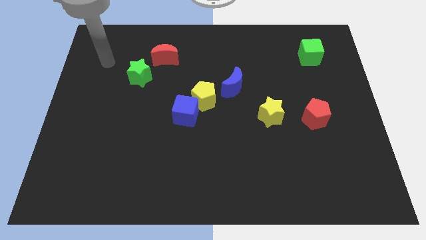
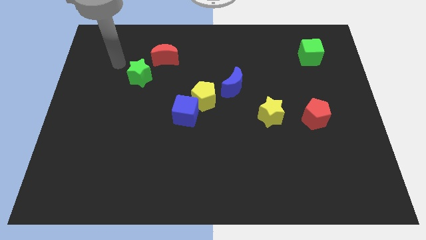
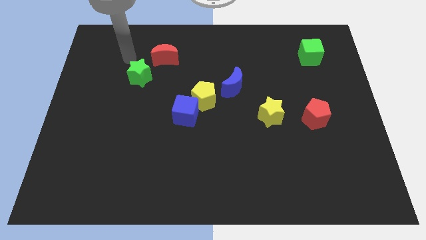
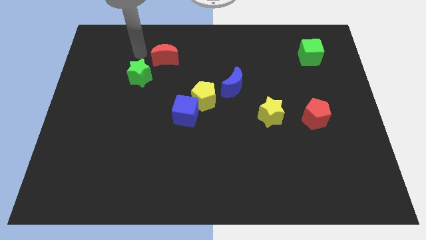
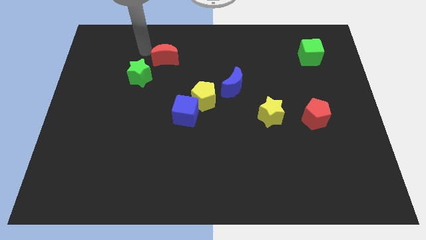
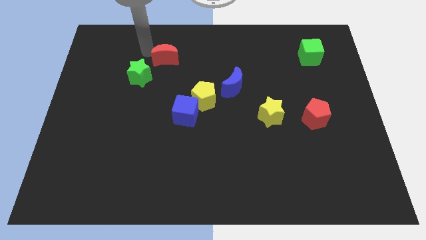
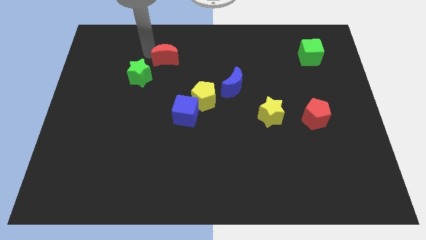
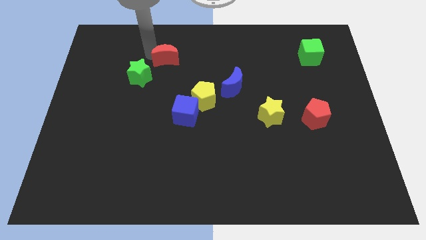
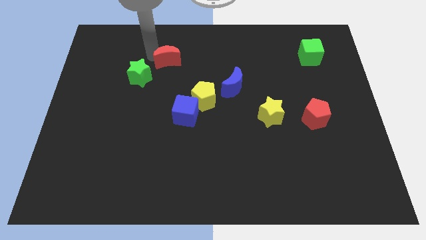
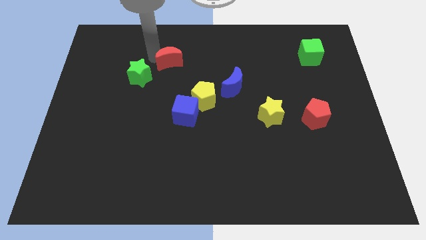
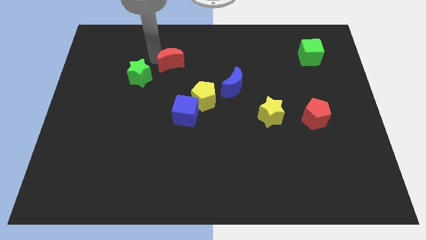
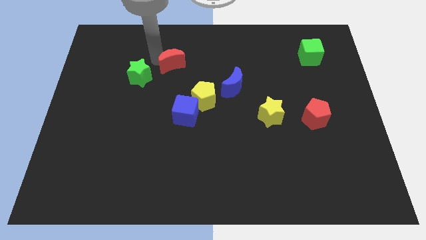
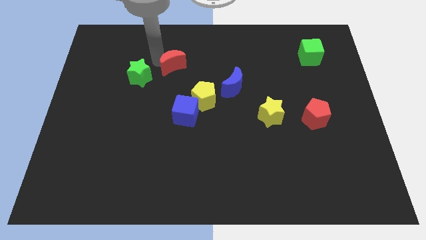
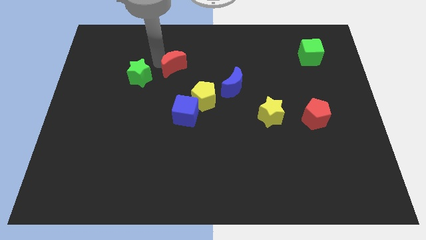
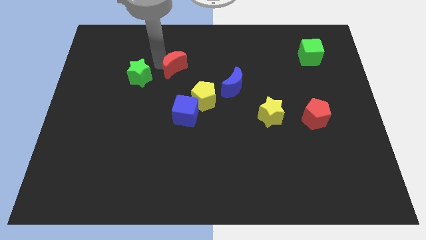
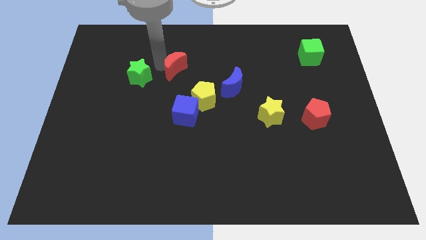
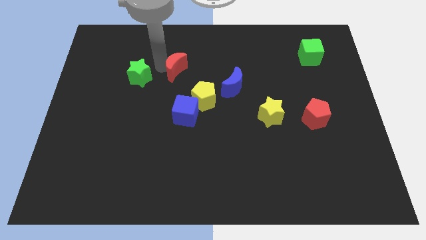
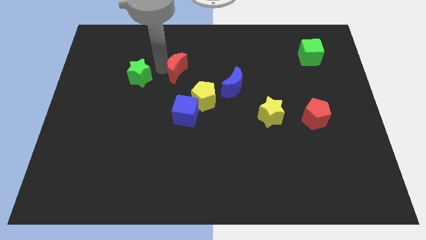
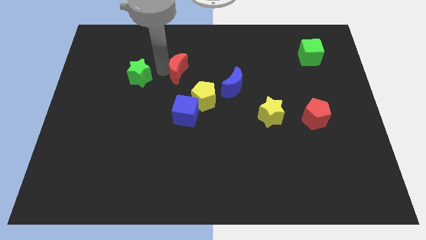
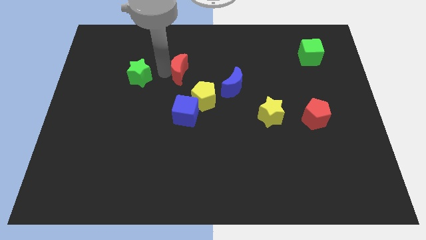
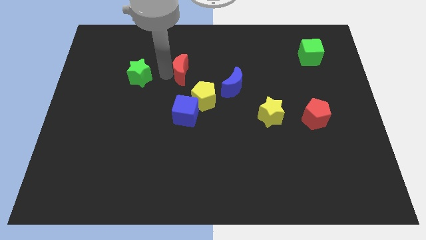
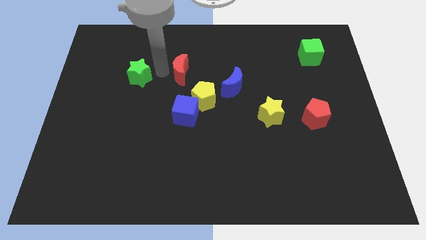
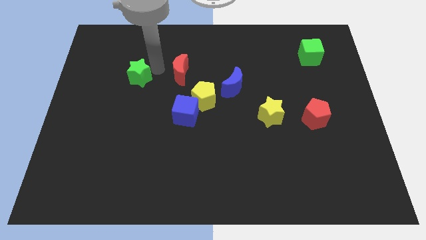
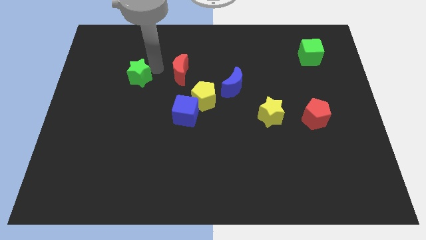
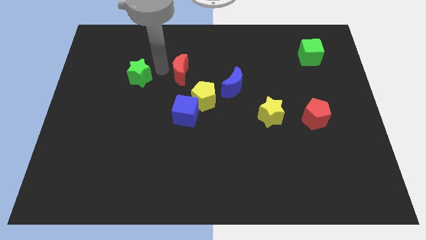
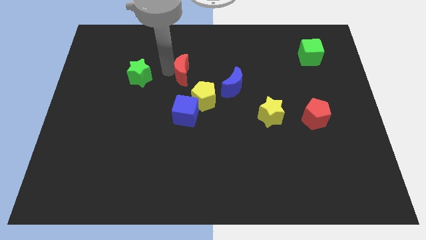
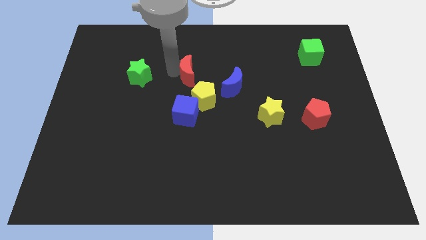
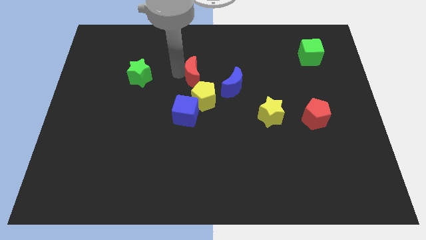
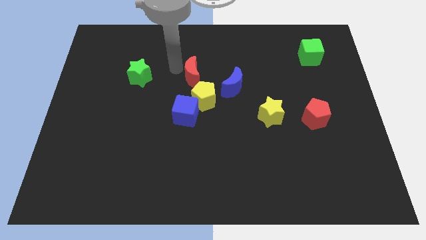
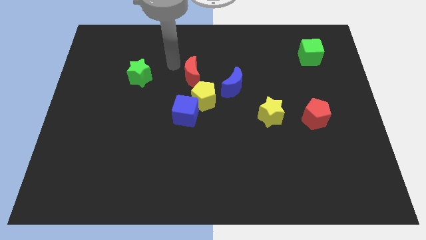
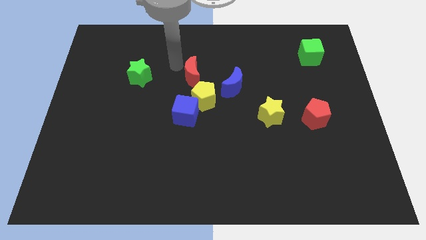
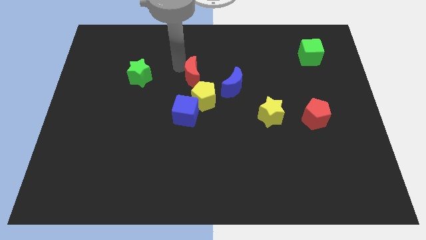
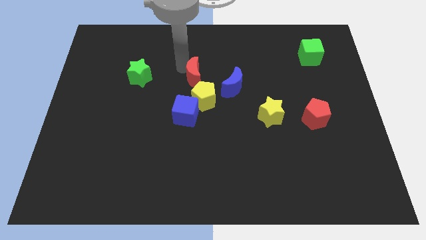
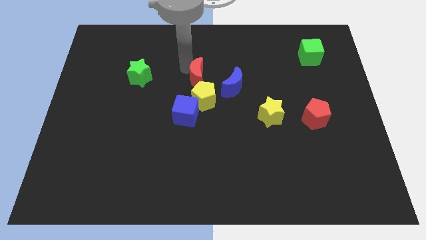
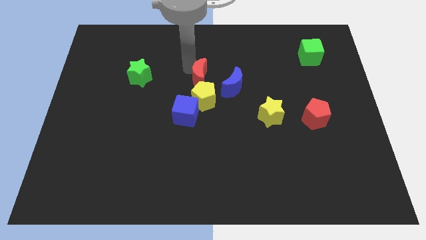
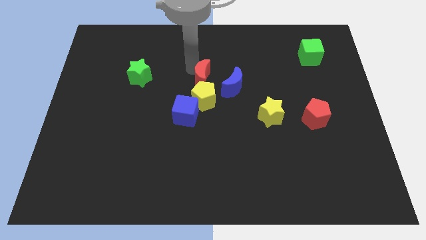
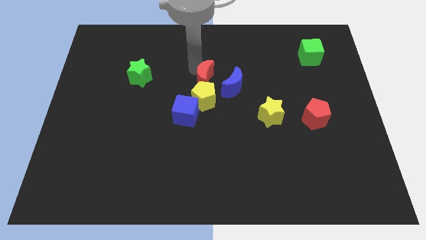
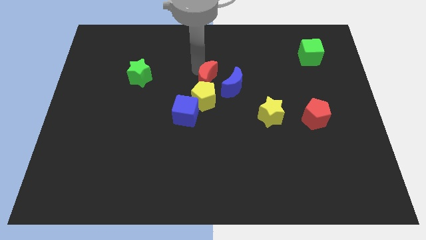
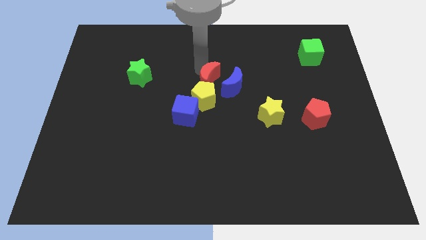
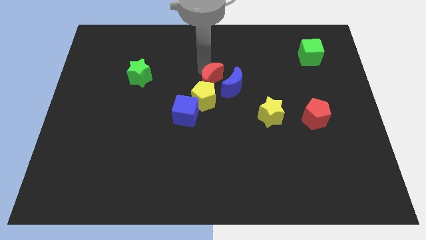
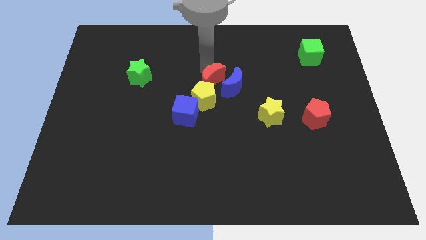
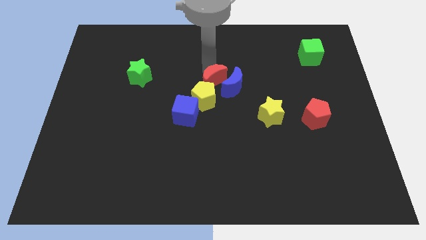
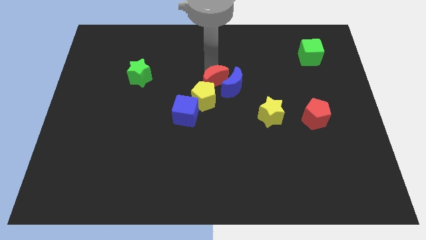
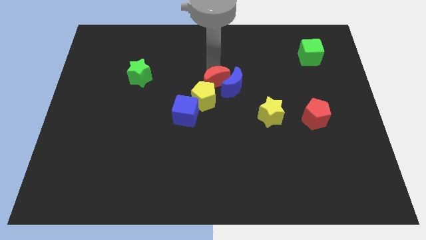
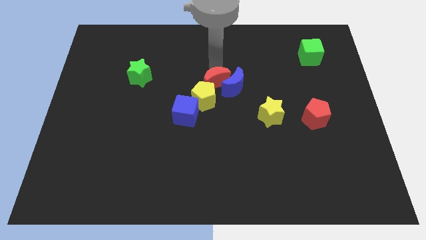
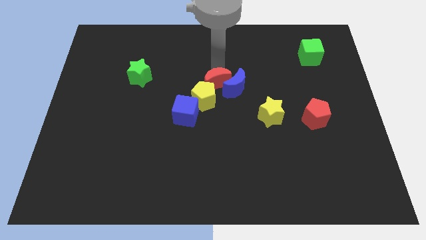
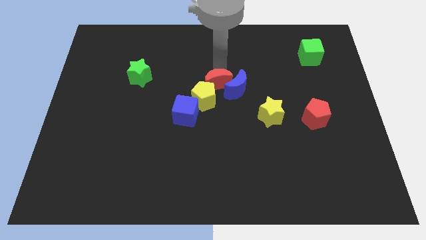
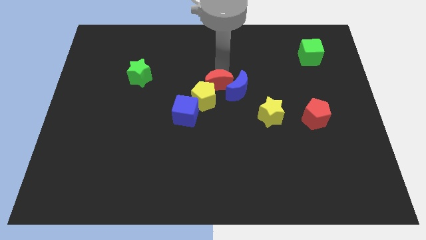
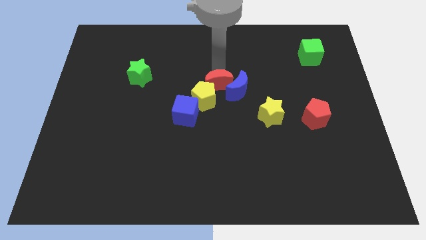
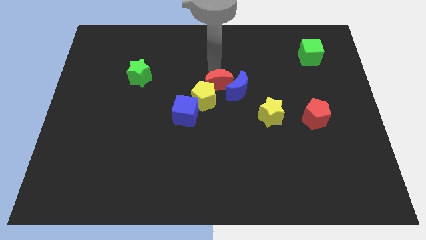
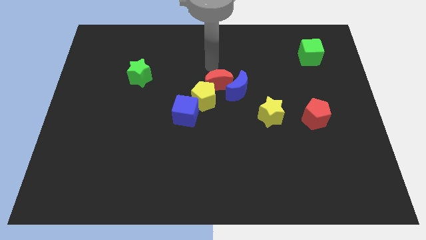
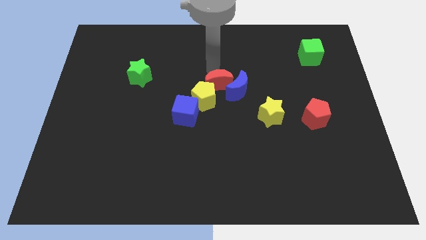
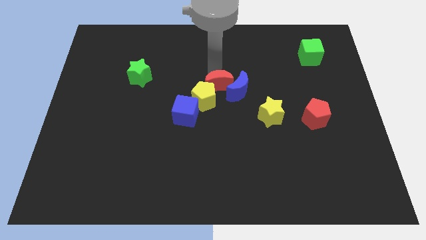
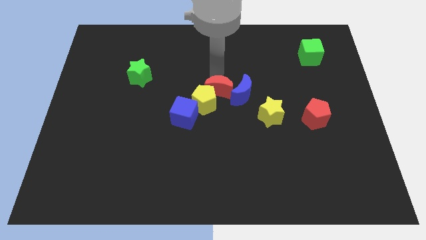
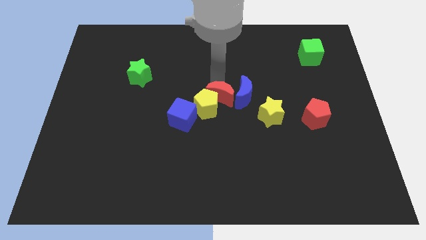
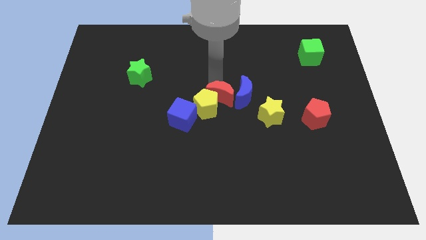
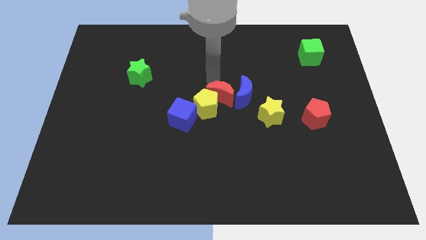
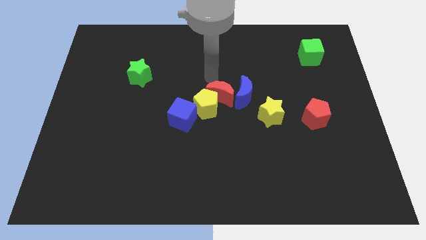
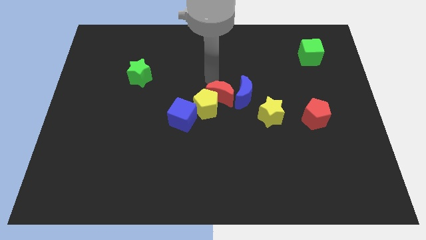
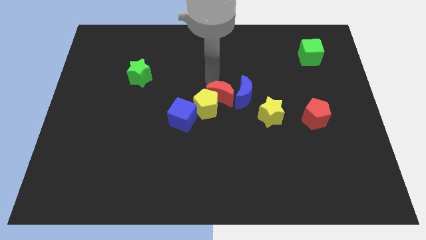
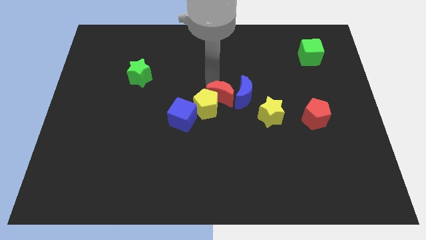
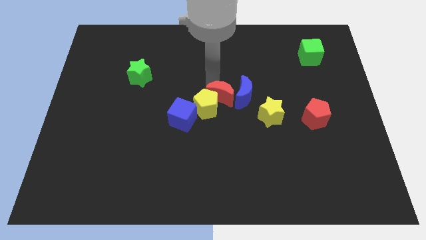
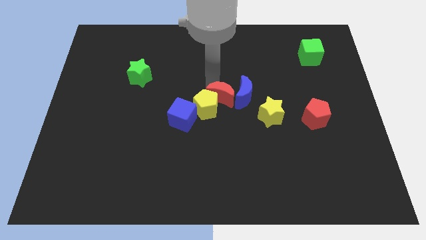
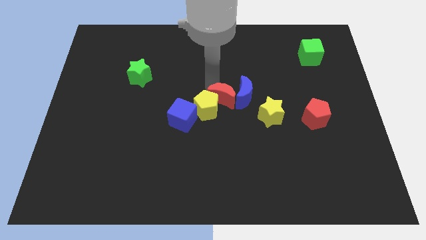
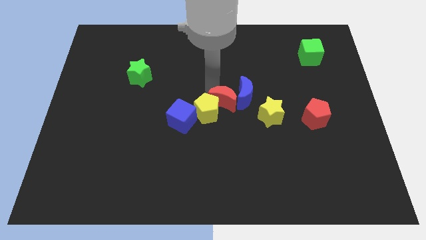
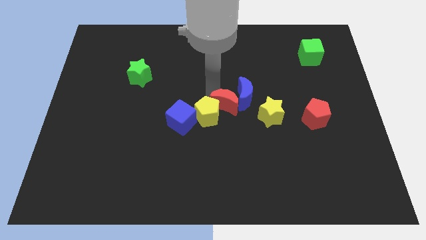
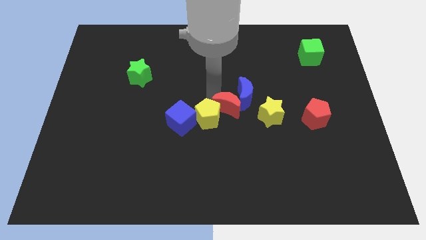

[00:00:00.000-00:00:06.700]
push the red moon to the bottom side of the blue moon
